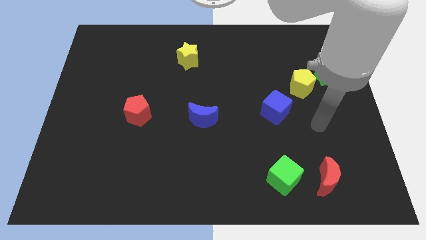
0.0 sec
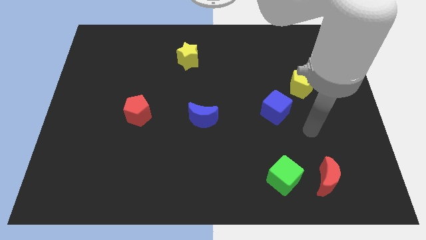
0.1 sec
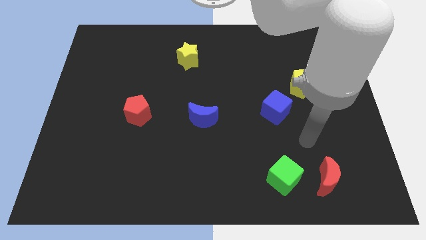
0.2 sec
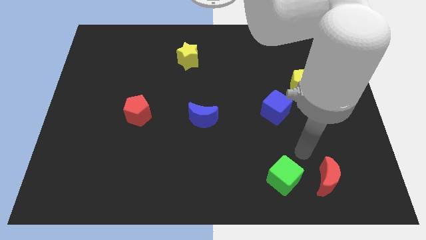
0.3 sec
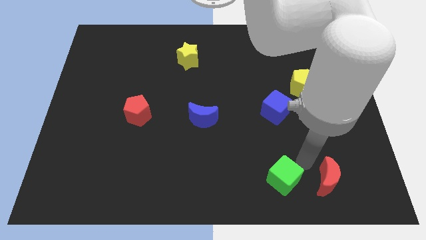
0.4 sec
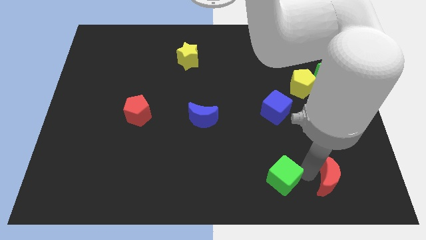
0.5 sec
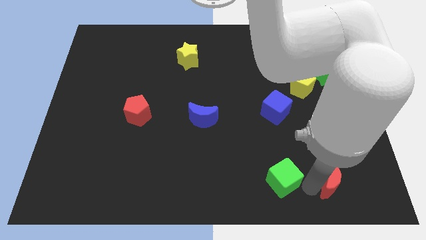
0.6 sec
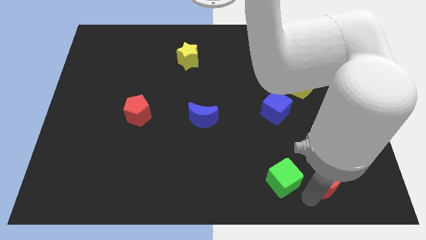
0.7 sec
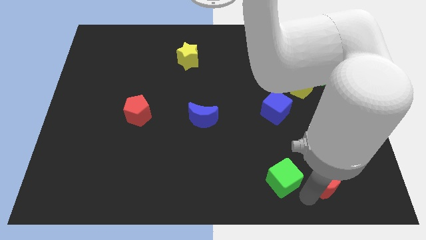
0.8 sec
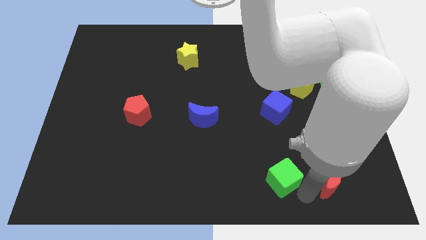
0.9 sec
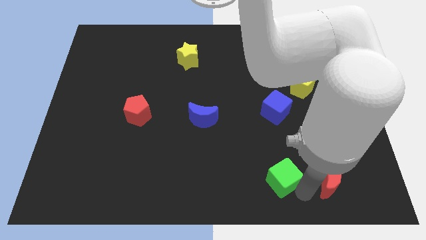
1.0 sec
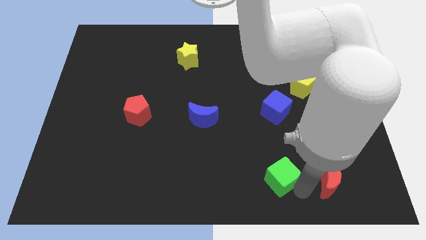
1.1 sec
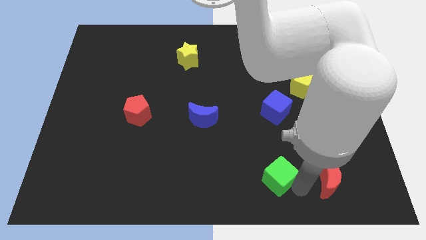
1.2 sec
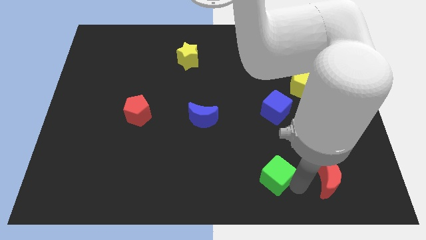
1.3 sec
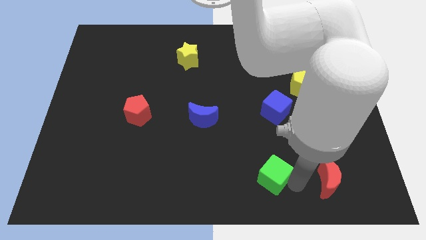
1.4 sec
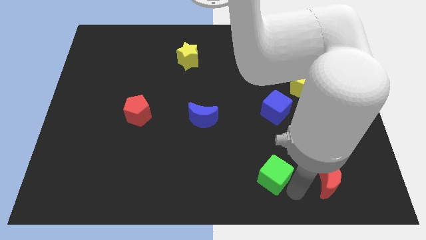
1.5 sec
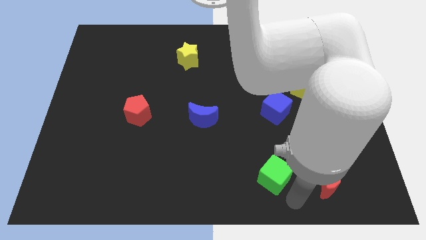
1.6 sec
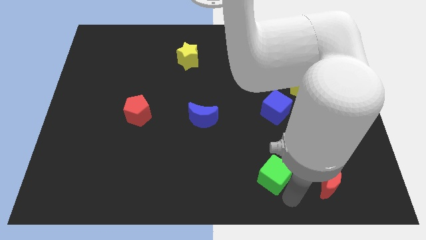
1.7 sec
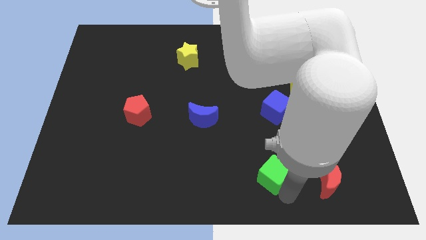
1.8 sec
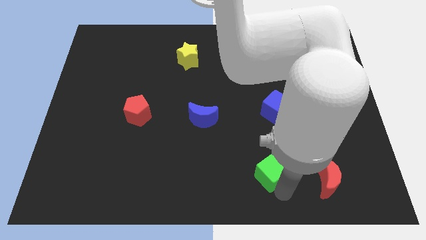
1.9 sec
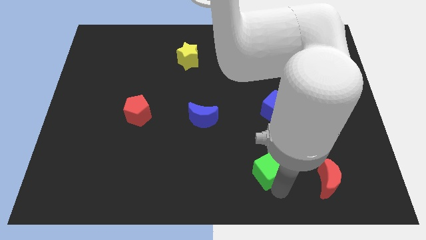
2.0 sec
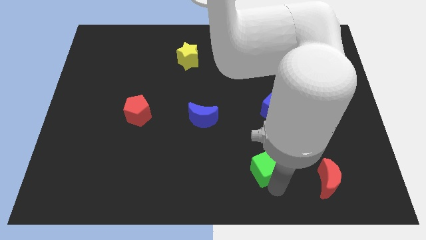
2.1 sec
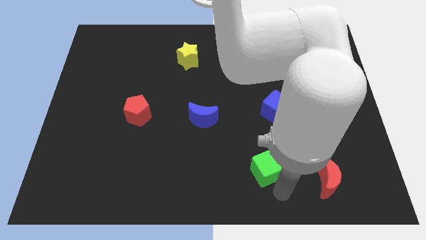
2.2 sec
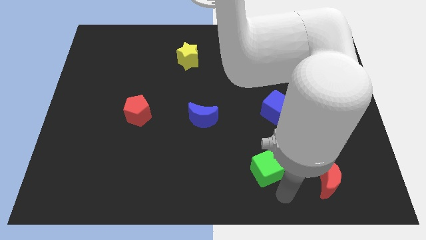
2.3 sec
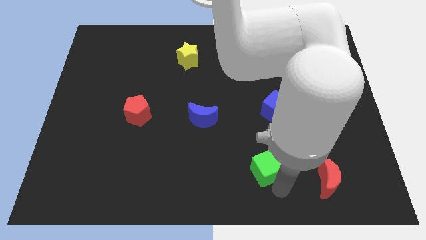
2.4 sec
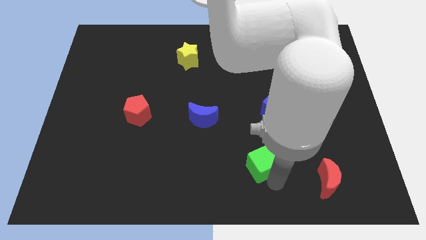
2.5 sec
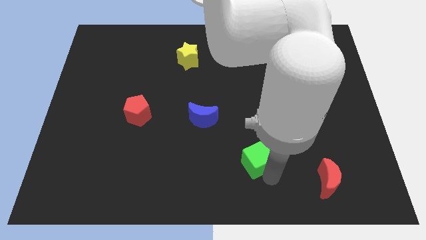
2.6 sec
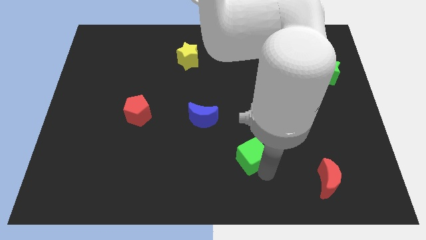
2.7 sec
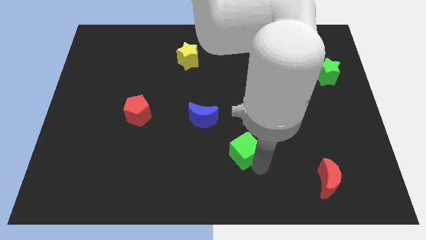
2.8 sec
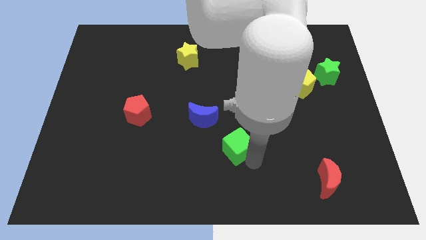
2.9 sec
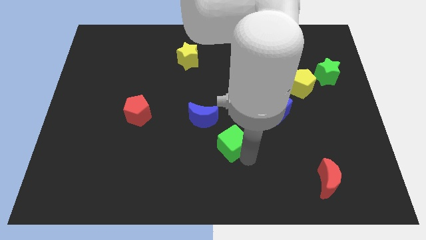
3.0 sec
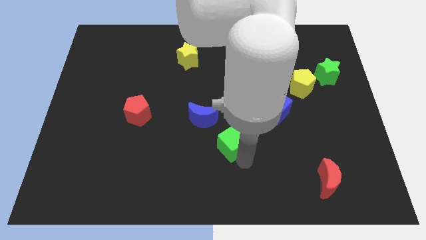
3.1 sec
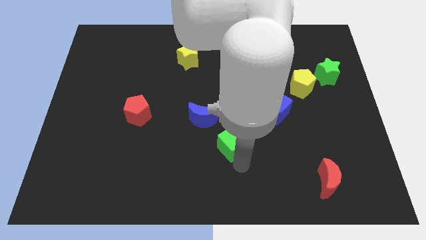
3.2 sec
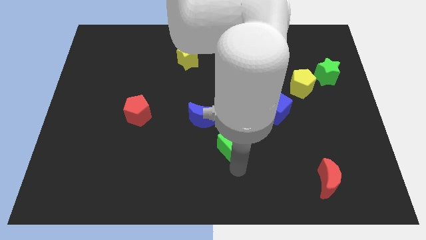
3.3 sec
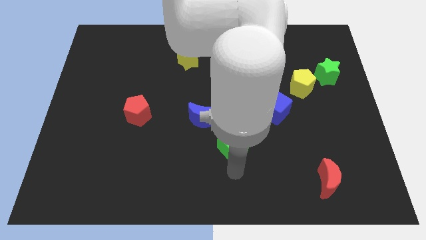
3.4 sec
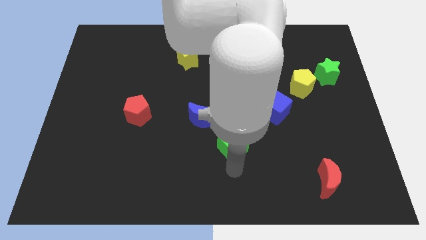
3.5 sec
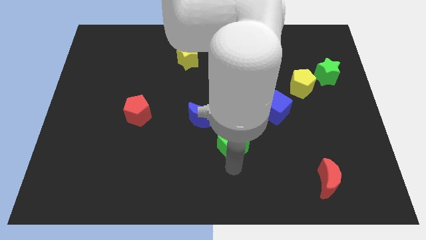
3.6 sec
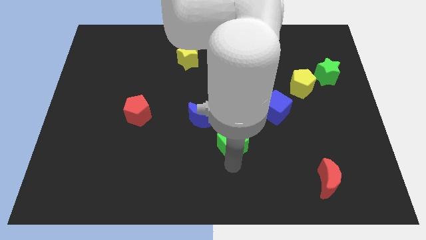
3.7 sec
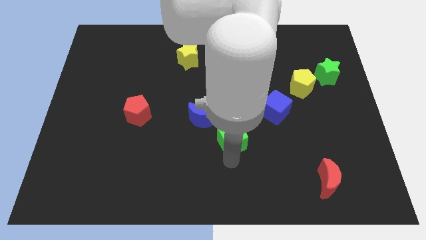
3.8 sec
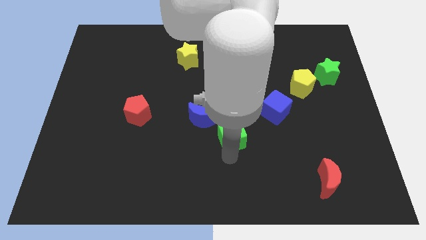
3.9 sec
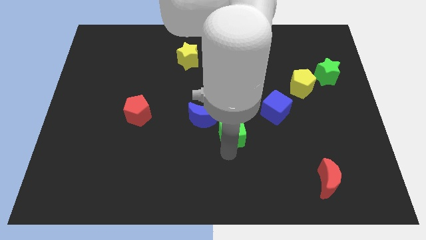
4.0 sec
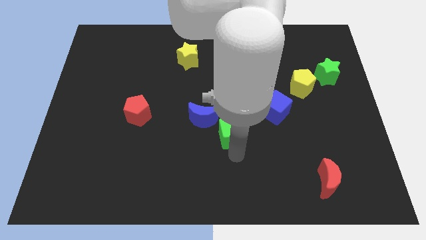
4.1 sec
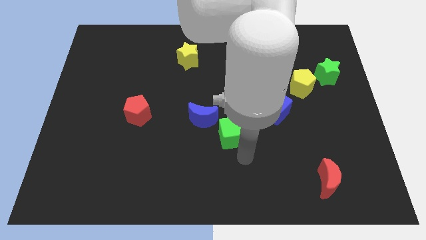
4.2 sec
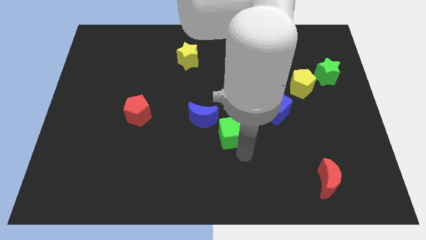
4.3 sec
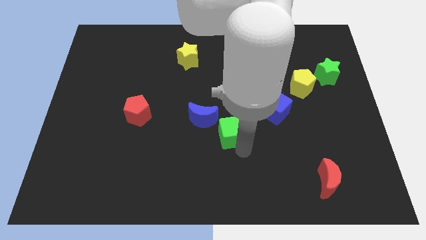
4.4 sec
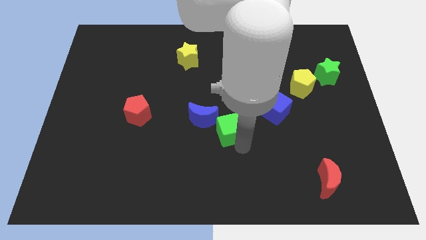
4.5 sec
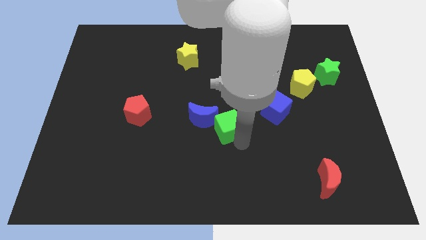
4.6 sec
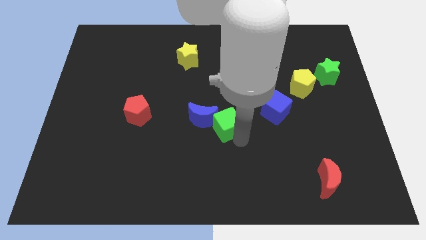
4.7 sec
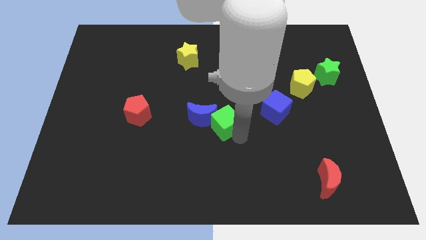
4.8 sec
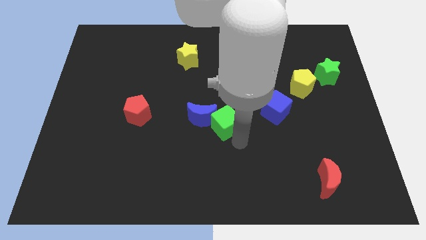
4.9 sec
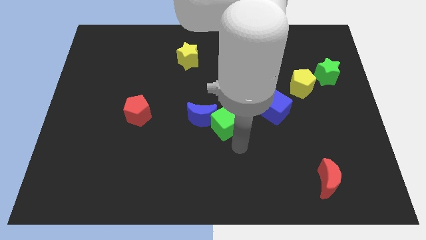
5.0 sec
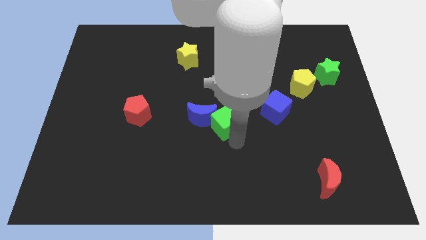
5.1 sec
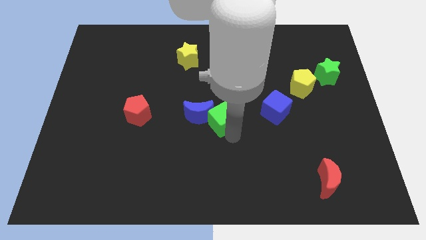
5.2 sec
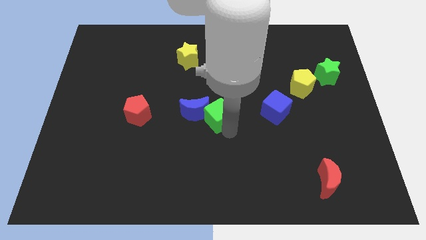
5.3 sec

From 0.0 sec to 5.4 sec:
slide the green cube up and then to the left

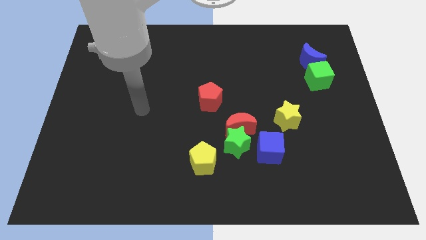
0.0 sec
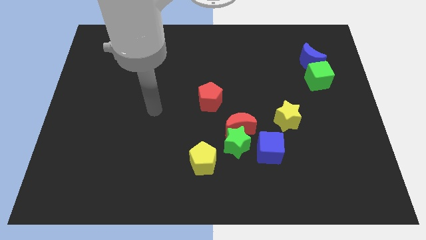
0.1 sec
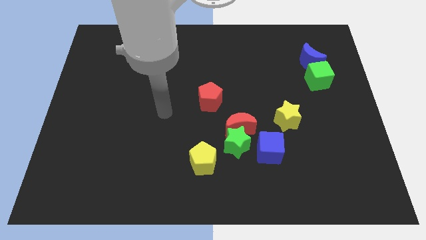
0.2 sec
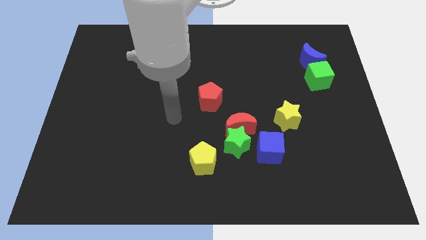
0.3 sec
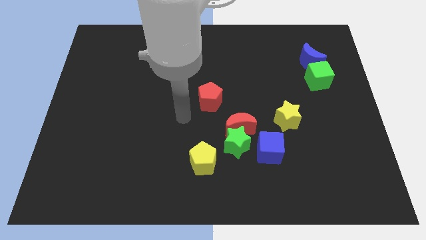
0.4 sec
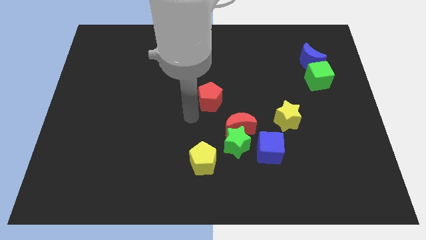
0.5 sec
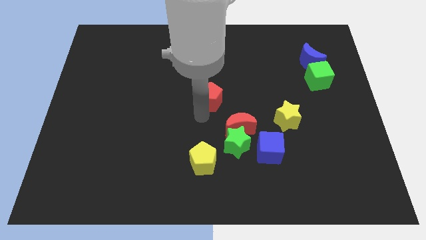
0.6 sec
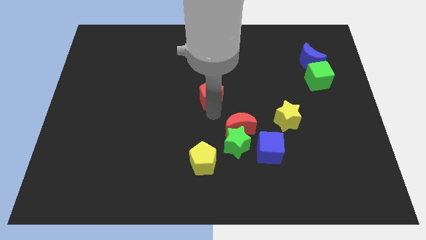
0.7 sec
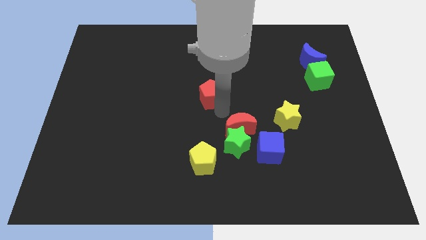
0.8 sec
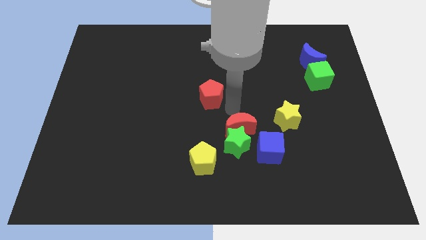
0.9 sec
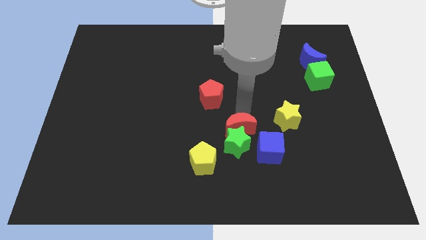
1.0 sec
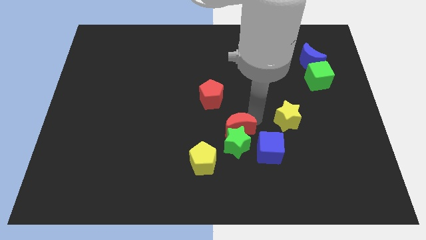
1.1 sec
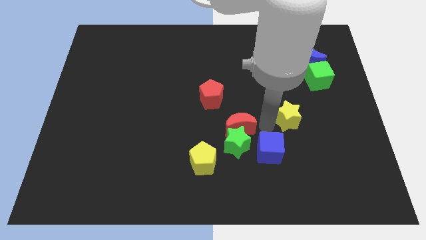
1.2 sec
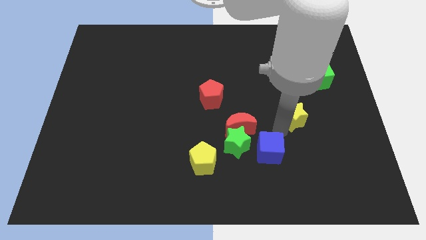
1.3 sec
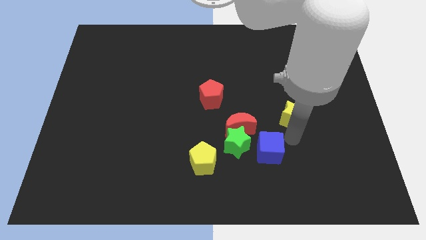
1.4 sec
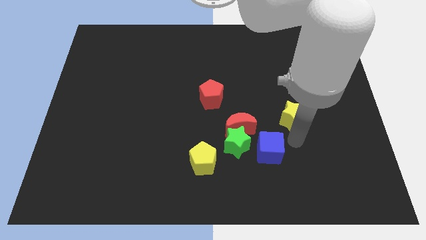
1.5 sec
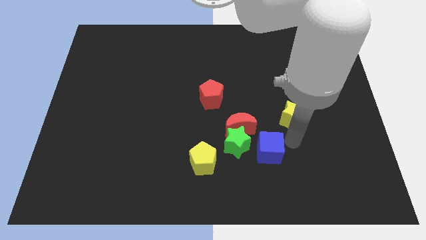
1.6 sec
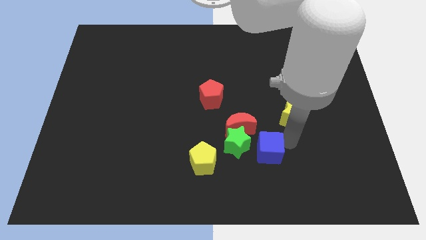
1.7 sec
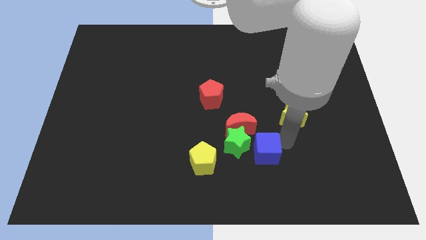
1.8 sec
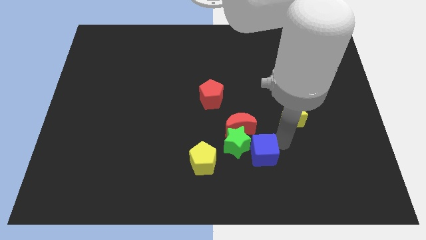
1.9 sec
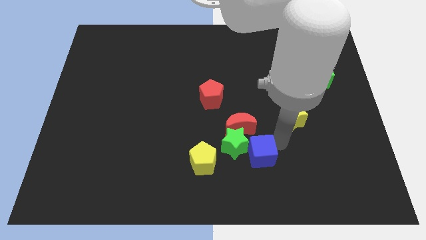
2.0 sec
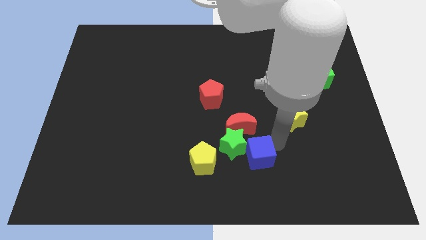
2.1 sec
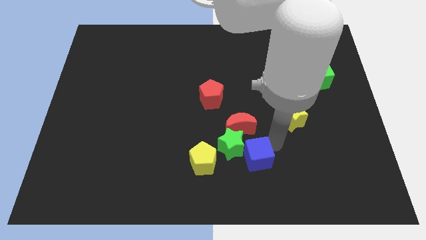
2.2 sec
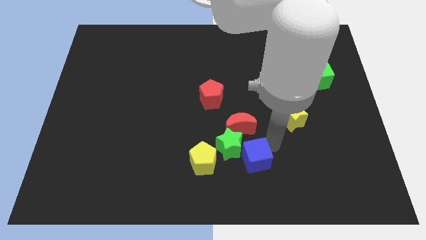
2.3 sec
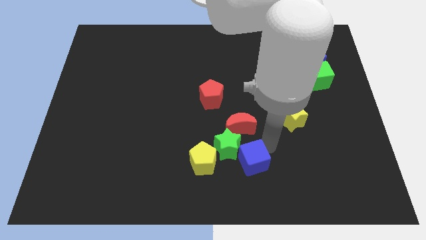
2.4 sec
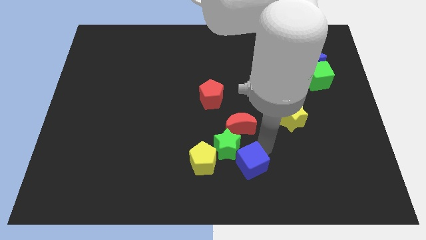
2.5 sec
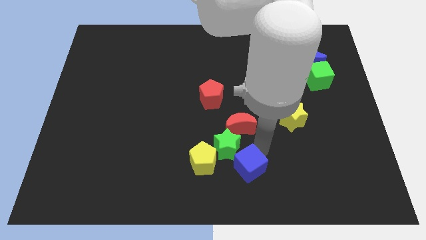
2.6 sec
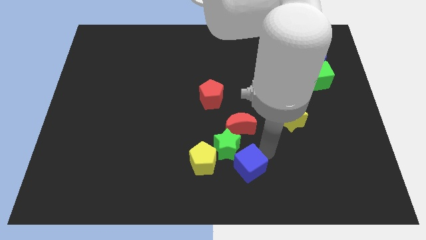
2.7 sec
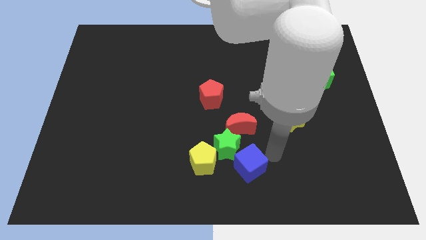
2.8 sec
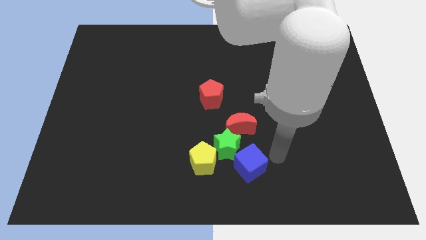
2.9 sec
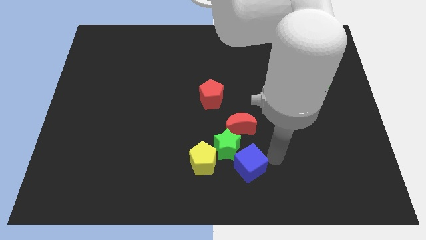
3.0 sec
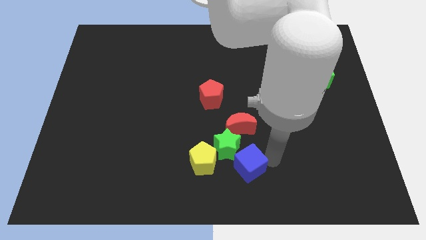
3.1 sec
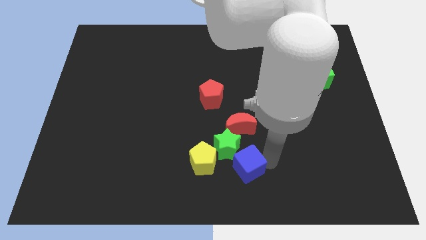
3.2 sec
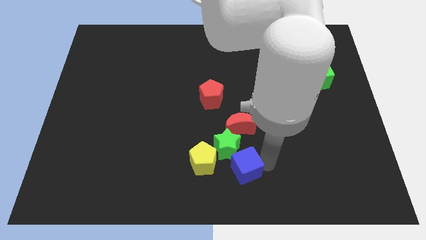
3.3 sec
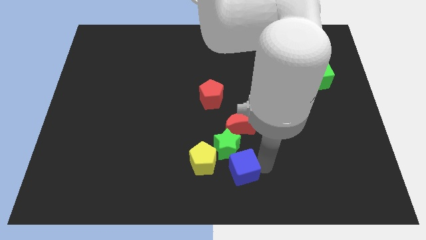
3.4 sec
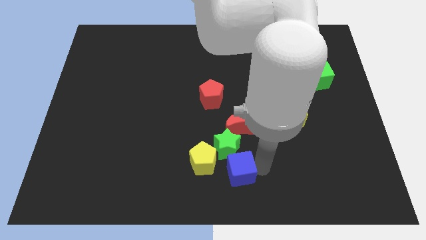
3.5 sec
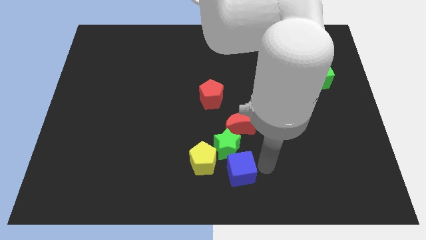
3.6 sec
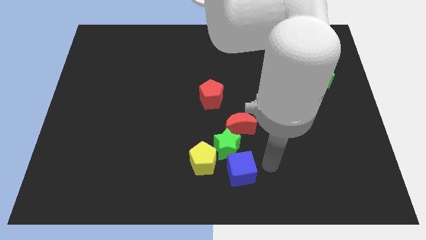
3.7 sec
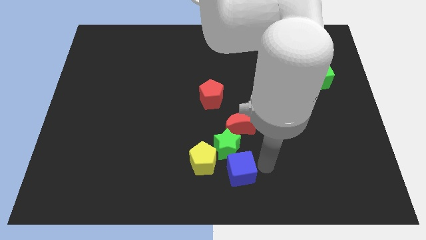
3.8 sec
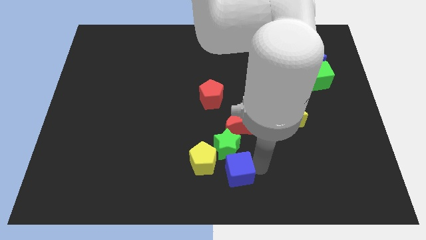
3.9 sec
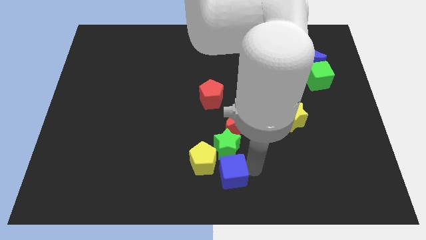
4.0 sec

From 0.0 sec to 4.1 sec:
push the blue cube left a bit
